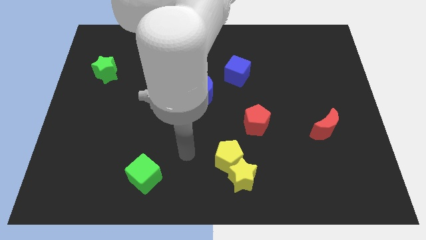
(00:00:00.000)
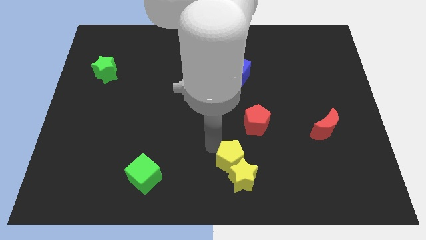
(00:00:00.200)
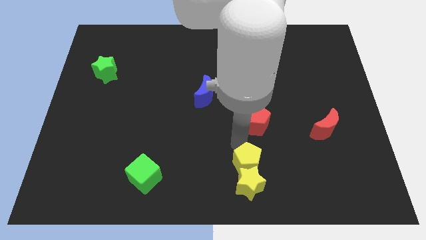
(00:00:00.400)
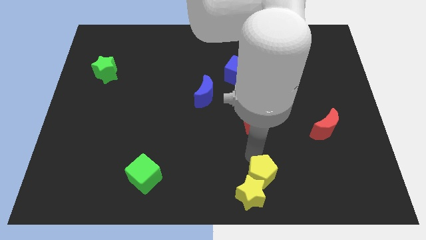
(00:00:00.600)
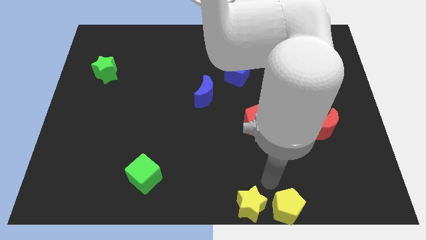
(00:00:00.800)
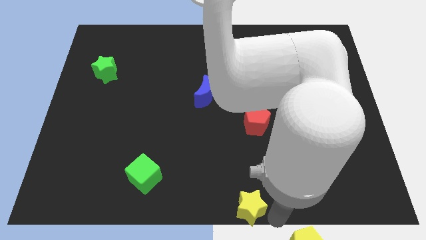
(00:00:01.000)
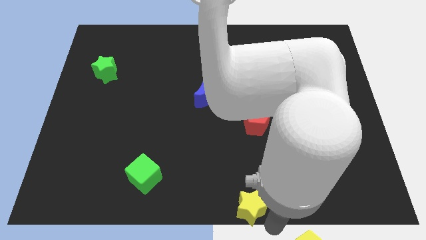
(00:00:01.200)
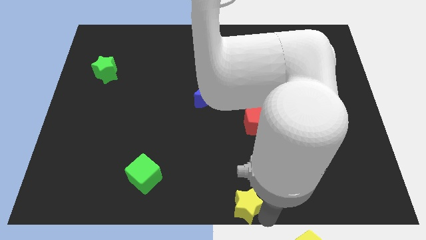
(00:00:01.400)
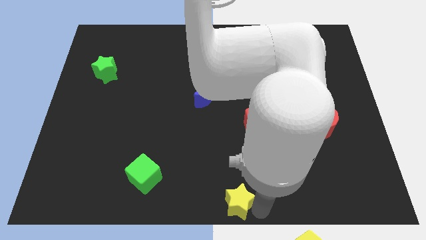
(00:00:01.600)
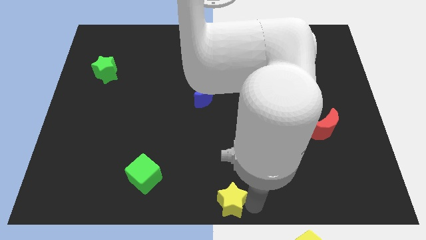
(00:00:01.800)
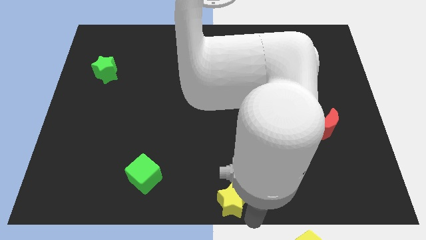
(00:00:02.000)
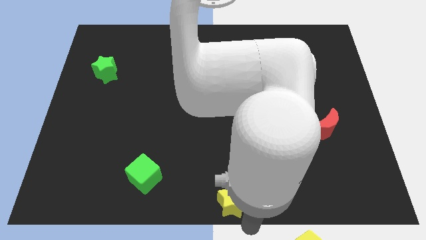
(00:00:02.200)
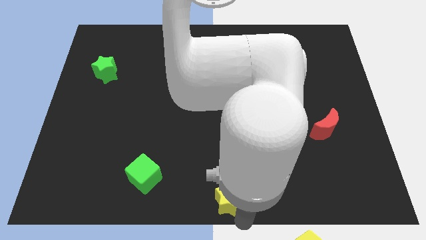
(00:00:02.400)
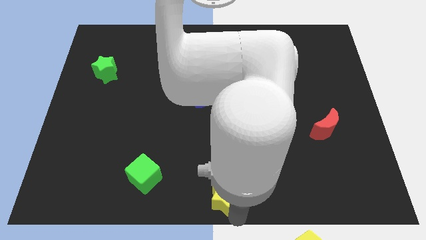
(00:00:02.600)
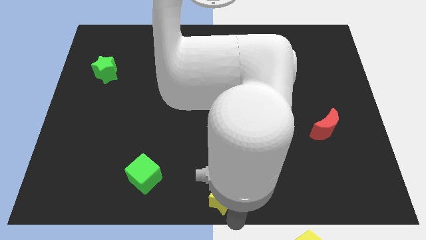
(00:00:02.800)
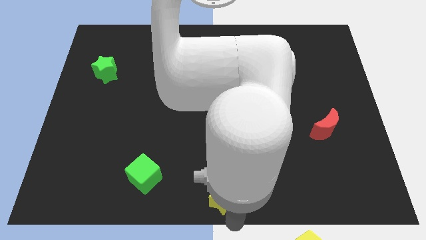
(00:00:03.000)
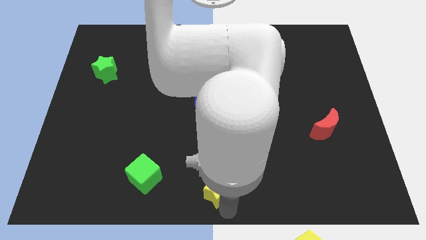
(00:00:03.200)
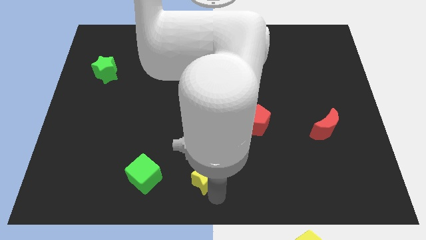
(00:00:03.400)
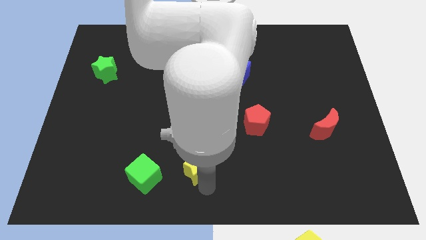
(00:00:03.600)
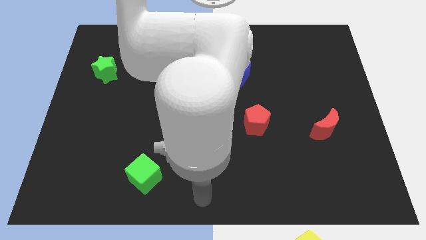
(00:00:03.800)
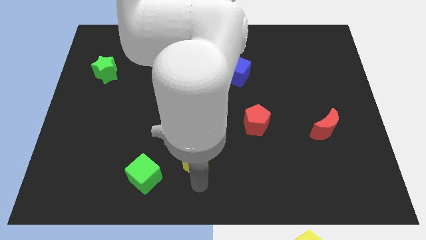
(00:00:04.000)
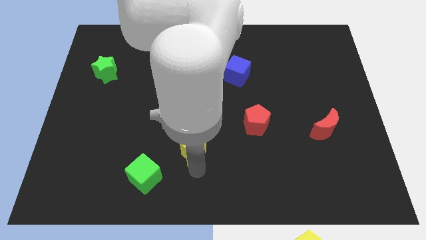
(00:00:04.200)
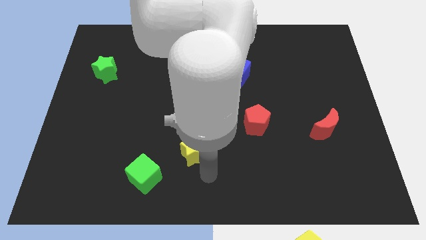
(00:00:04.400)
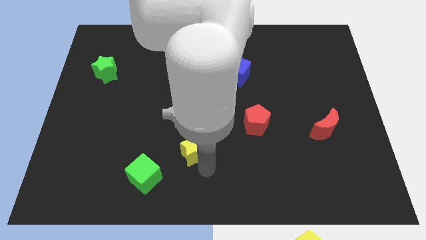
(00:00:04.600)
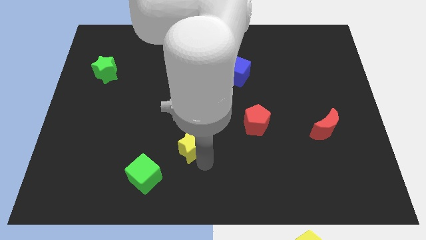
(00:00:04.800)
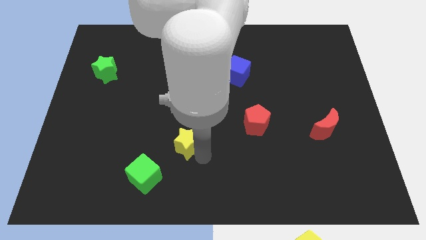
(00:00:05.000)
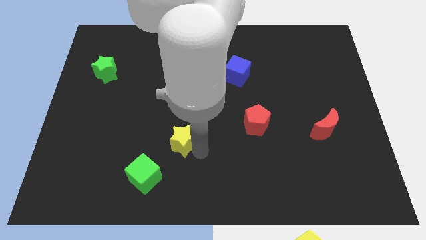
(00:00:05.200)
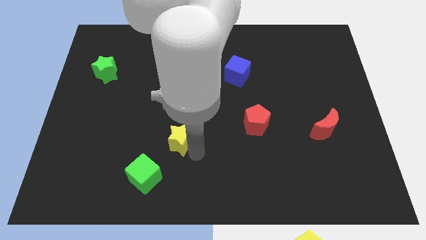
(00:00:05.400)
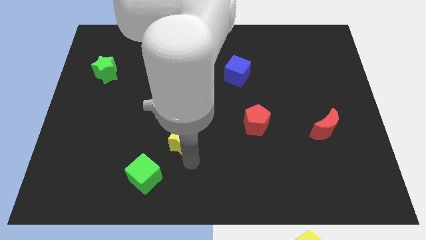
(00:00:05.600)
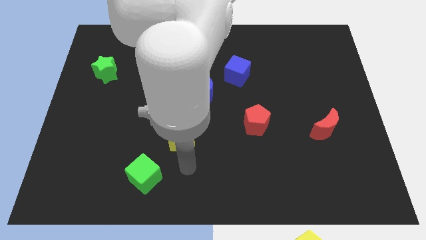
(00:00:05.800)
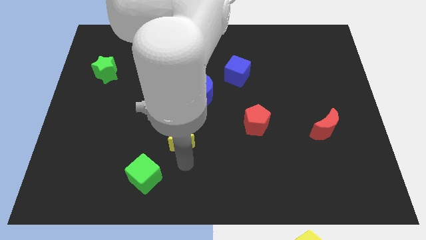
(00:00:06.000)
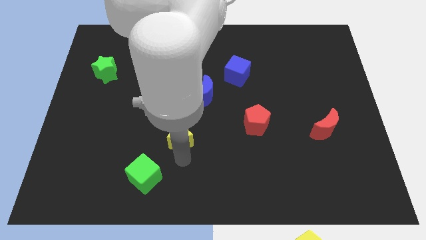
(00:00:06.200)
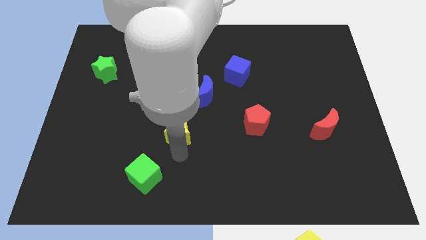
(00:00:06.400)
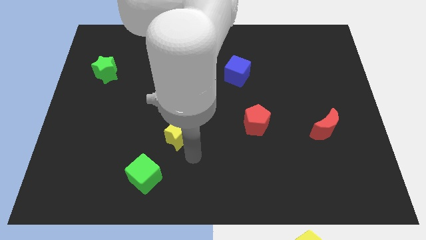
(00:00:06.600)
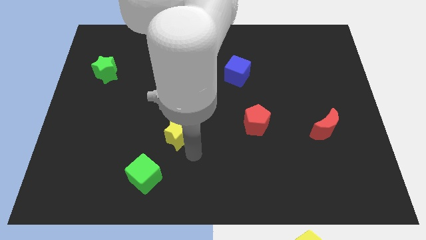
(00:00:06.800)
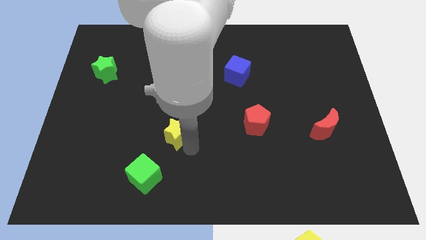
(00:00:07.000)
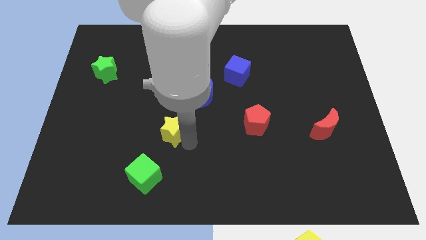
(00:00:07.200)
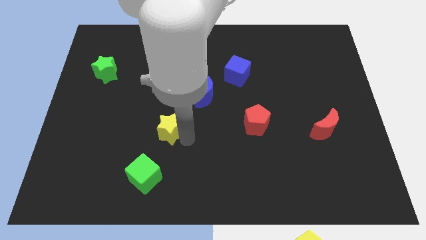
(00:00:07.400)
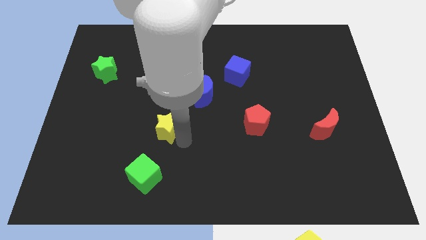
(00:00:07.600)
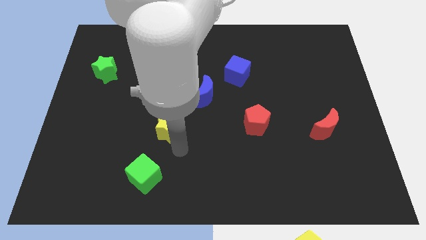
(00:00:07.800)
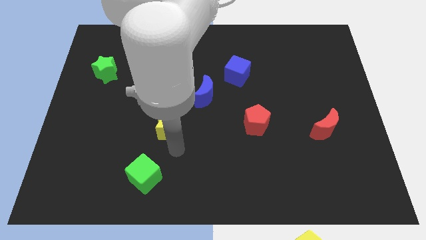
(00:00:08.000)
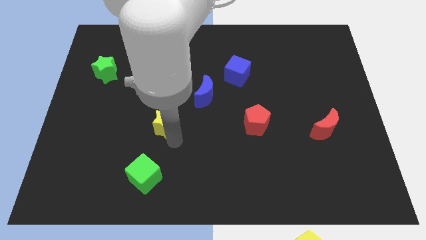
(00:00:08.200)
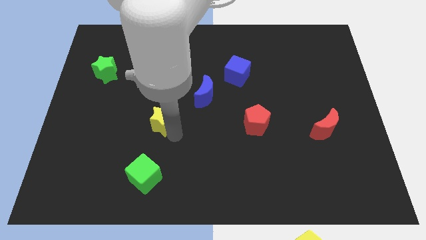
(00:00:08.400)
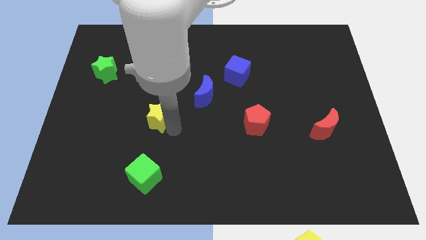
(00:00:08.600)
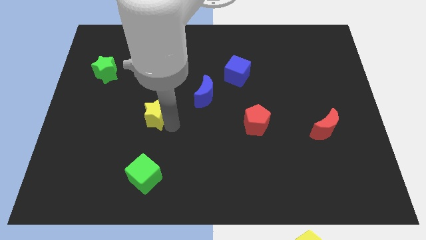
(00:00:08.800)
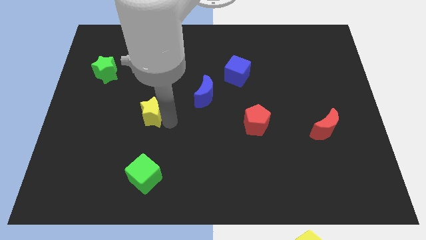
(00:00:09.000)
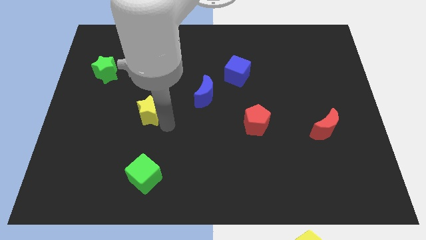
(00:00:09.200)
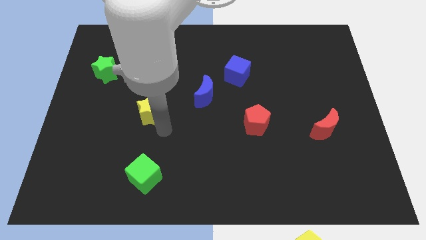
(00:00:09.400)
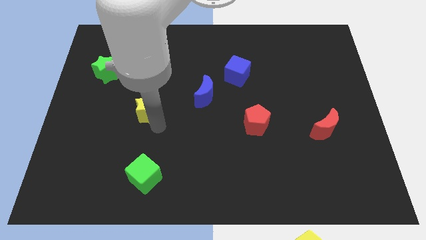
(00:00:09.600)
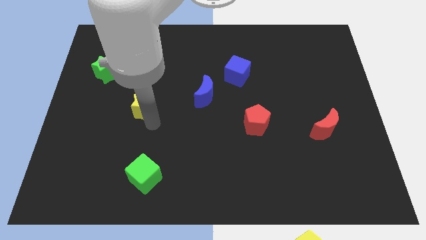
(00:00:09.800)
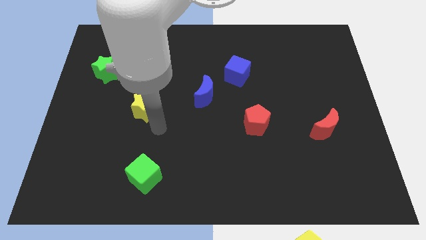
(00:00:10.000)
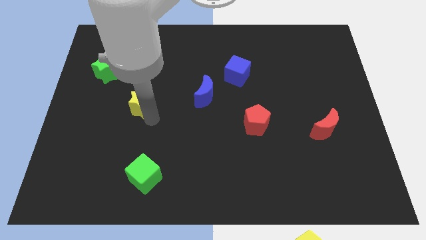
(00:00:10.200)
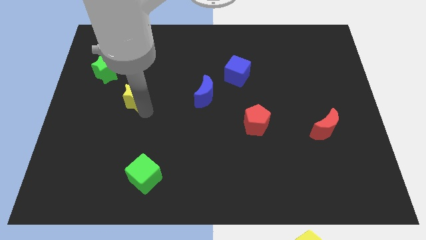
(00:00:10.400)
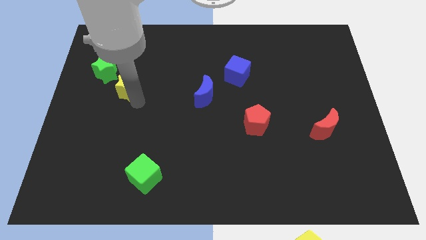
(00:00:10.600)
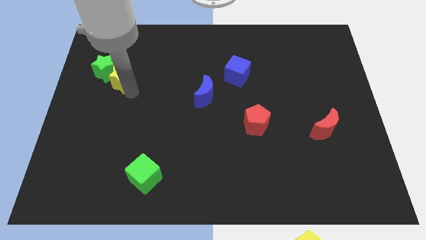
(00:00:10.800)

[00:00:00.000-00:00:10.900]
slide the yellow star to the green star

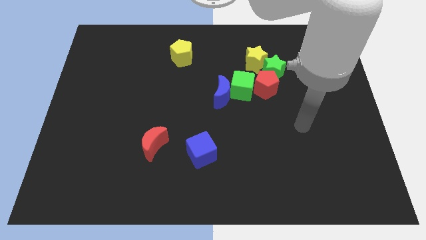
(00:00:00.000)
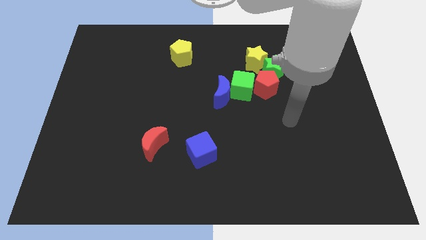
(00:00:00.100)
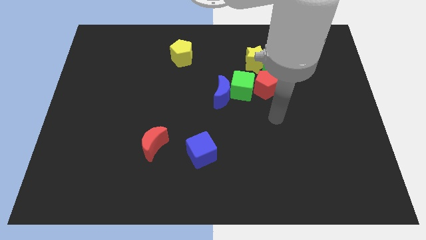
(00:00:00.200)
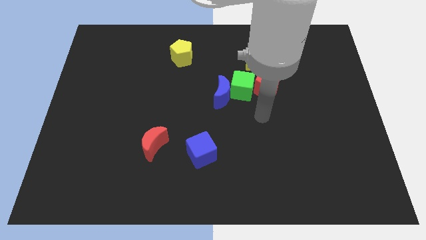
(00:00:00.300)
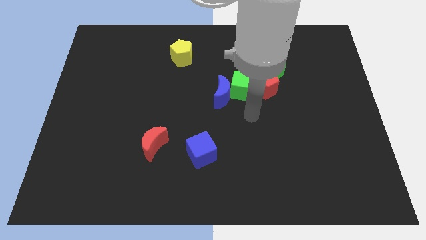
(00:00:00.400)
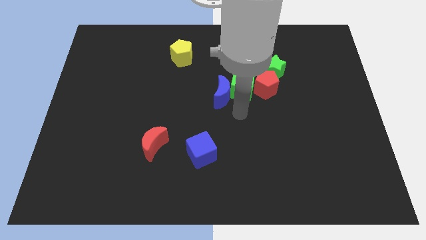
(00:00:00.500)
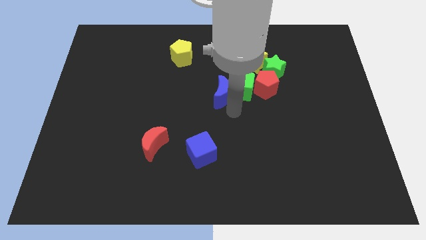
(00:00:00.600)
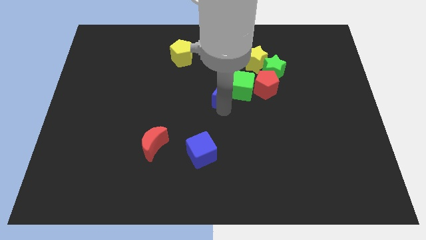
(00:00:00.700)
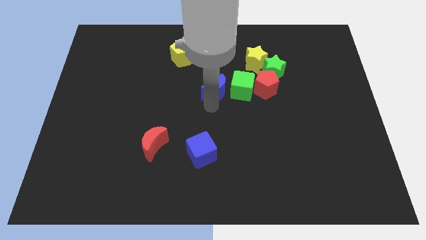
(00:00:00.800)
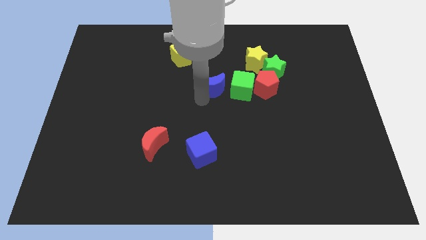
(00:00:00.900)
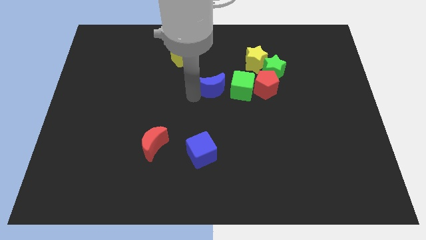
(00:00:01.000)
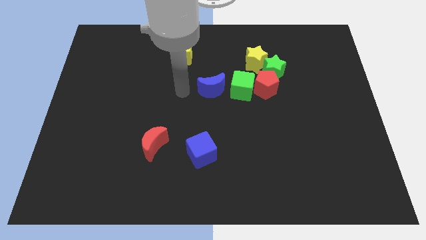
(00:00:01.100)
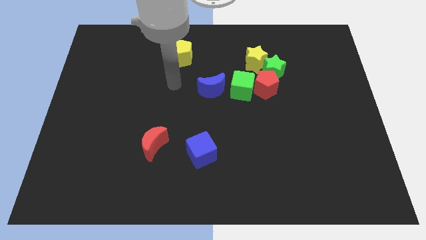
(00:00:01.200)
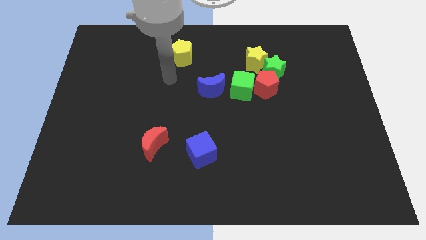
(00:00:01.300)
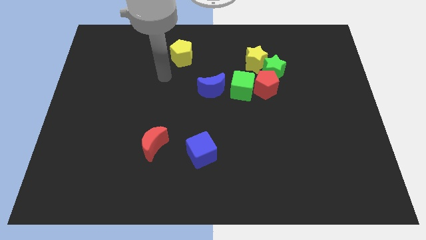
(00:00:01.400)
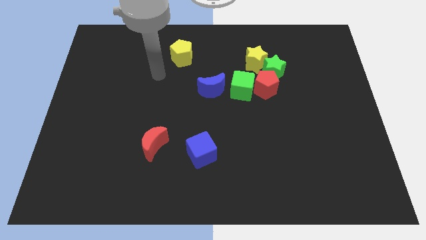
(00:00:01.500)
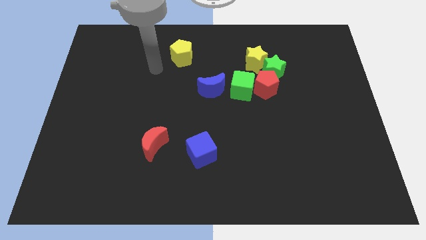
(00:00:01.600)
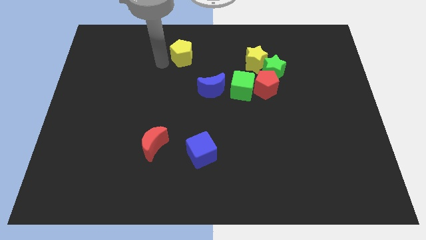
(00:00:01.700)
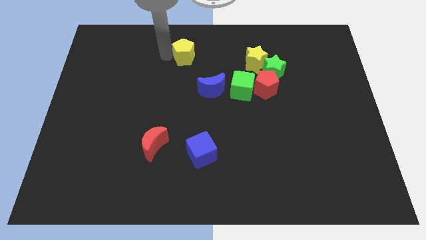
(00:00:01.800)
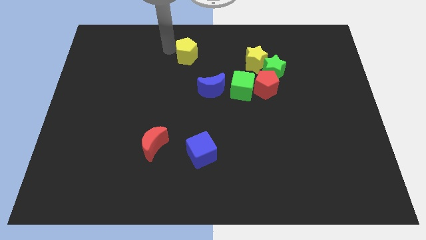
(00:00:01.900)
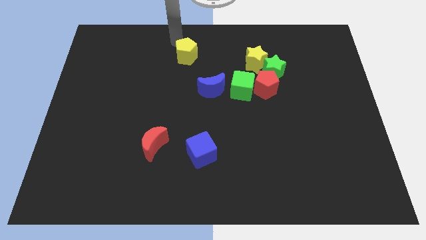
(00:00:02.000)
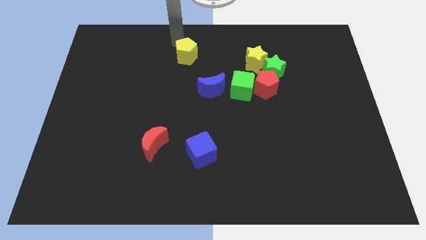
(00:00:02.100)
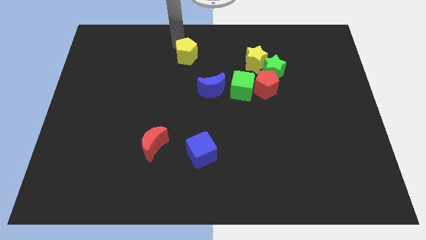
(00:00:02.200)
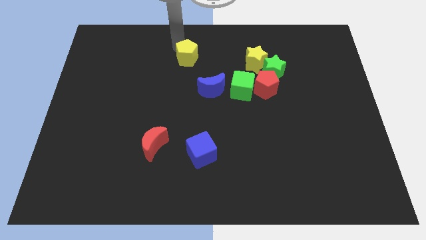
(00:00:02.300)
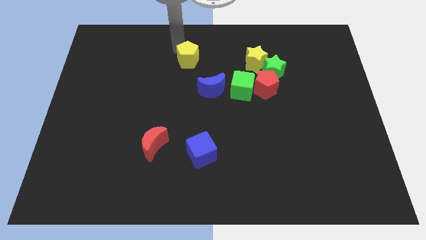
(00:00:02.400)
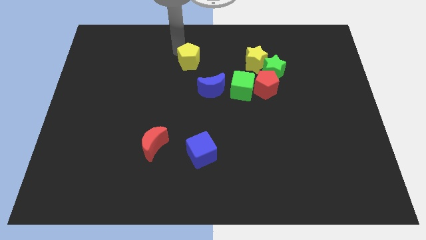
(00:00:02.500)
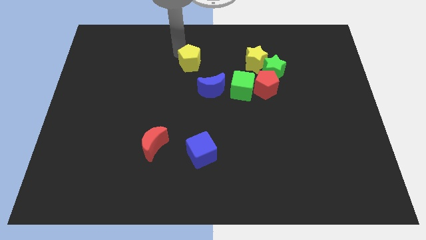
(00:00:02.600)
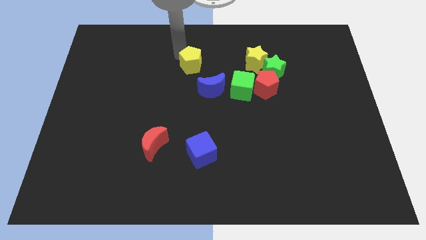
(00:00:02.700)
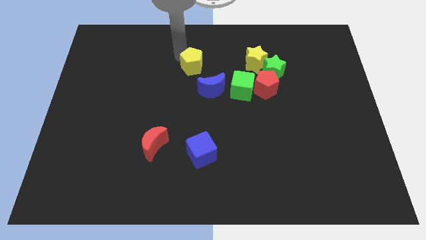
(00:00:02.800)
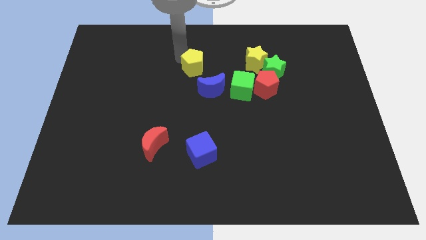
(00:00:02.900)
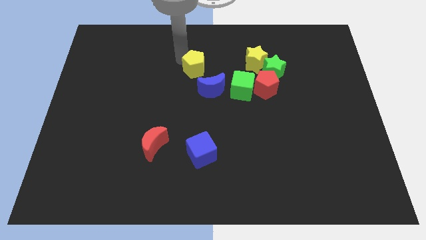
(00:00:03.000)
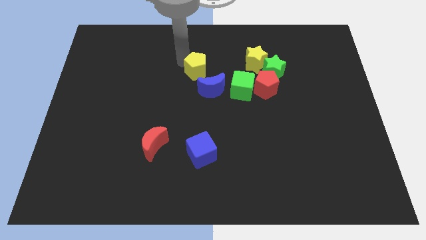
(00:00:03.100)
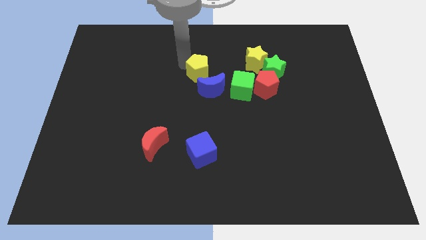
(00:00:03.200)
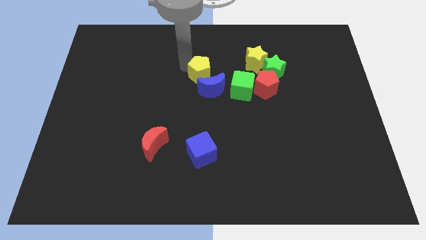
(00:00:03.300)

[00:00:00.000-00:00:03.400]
push the yellow pentagon next to the blue moon
